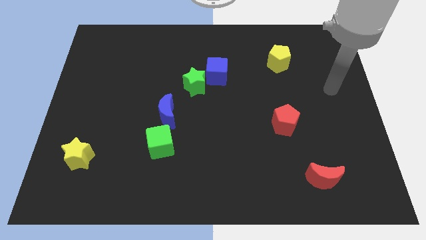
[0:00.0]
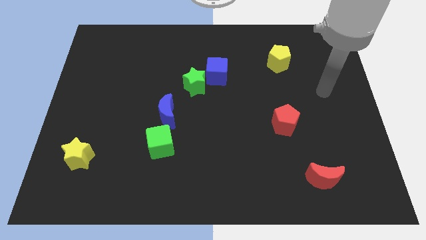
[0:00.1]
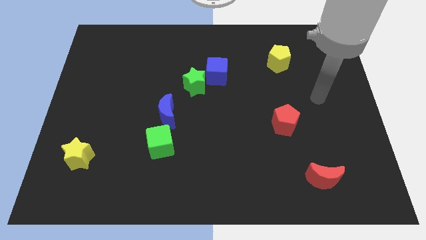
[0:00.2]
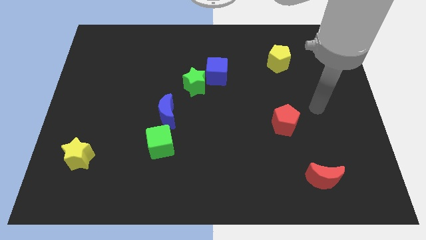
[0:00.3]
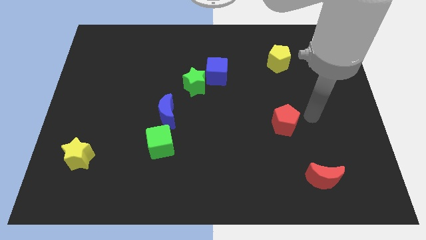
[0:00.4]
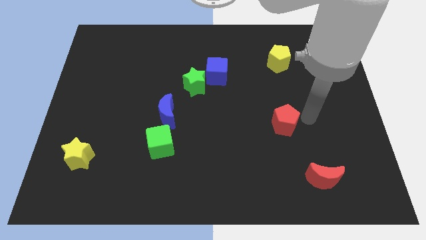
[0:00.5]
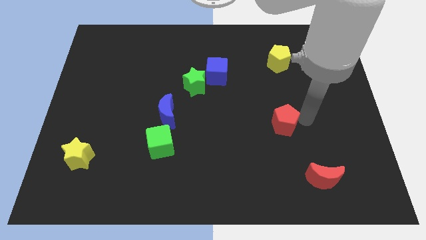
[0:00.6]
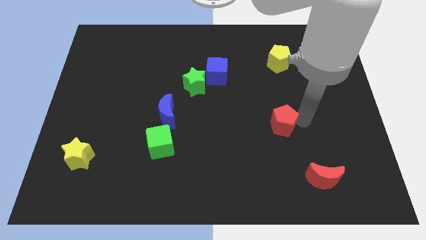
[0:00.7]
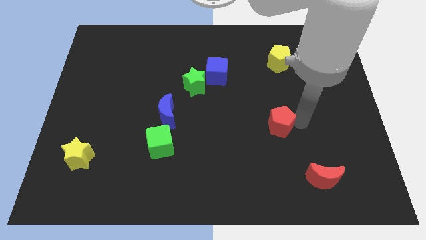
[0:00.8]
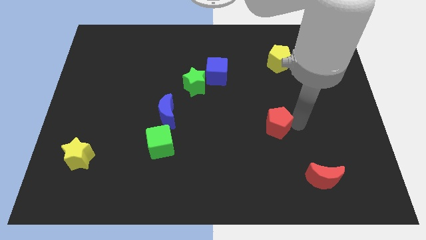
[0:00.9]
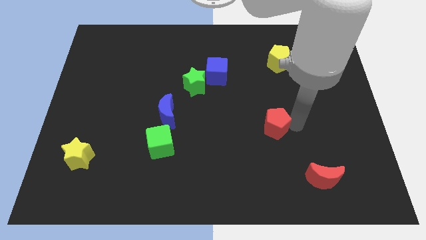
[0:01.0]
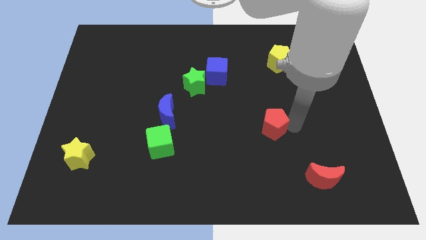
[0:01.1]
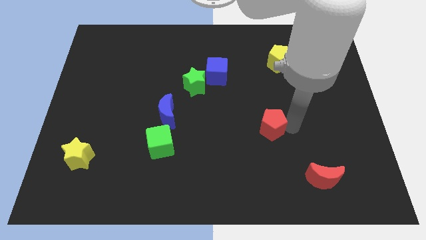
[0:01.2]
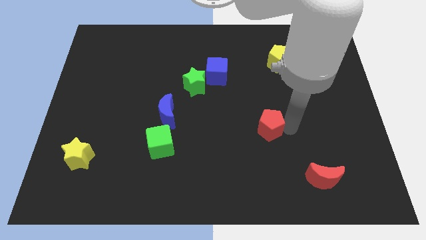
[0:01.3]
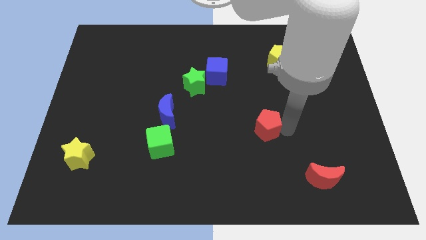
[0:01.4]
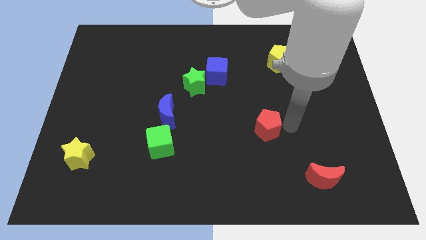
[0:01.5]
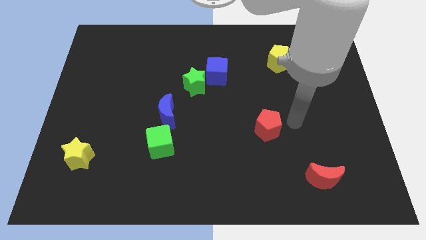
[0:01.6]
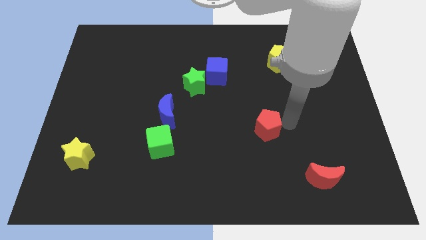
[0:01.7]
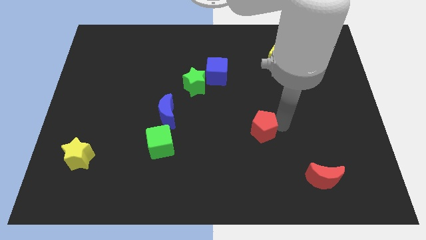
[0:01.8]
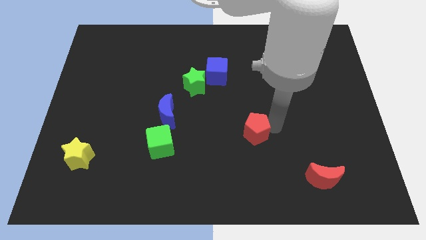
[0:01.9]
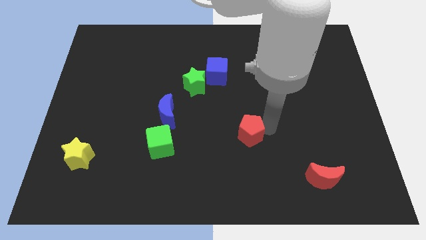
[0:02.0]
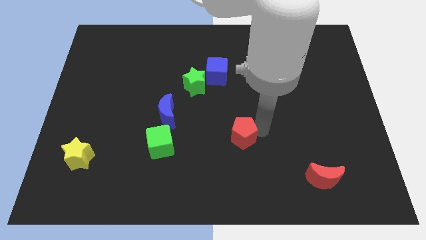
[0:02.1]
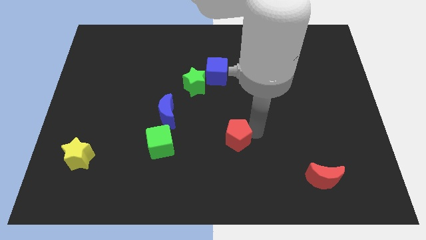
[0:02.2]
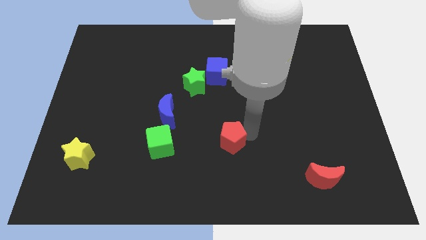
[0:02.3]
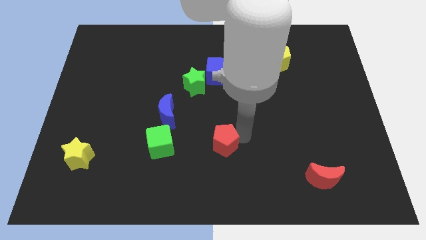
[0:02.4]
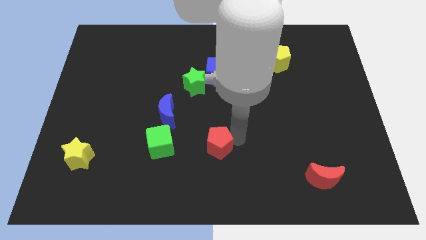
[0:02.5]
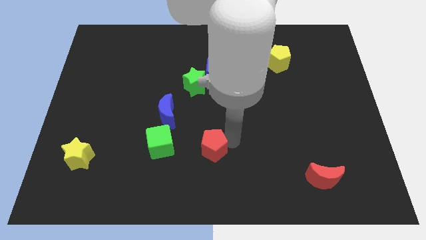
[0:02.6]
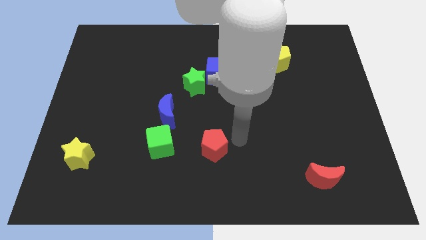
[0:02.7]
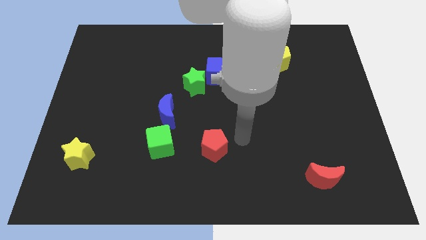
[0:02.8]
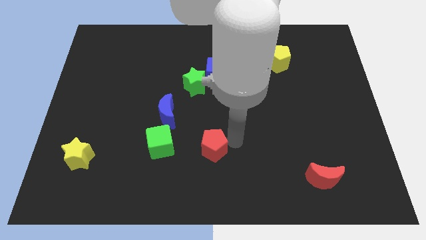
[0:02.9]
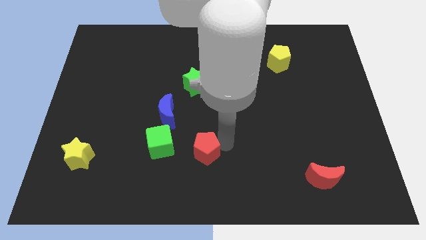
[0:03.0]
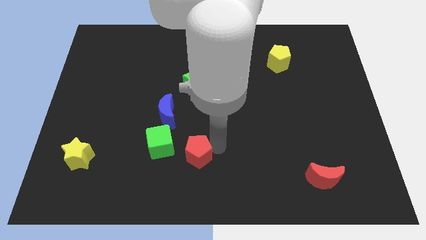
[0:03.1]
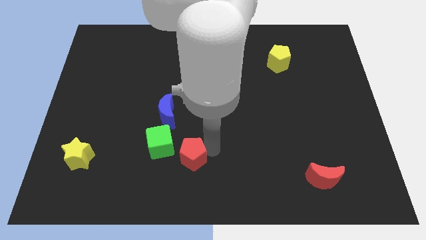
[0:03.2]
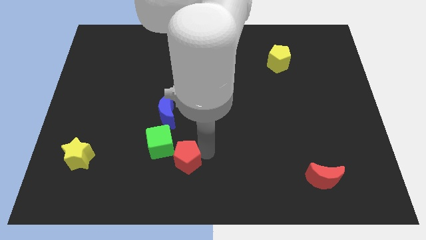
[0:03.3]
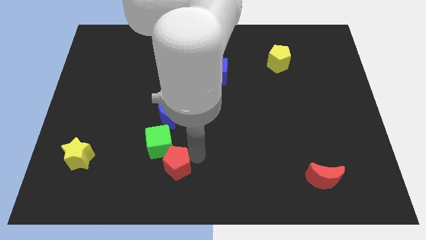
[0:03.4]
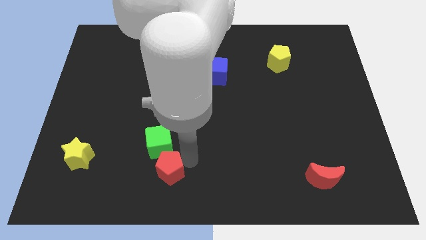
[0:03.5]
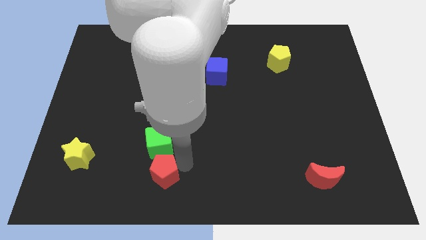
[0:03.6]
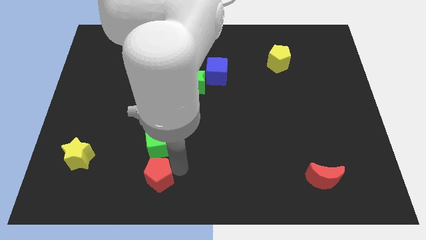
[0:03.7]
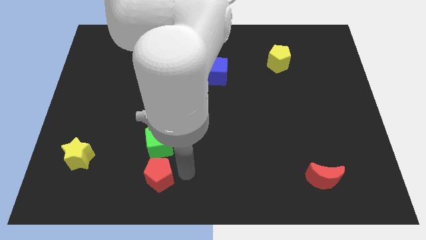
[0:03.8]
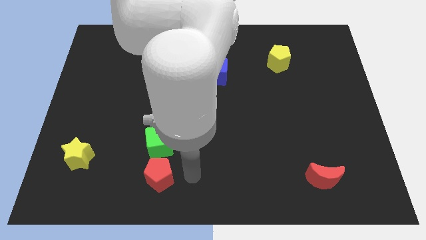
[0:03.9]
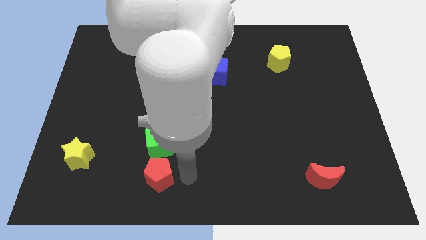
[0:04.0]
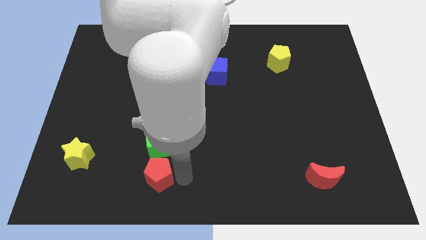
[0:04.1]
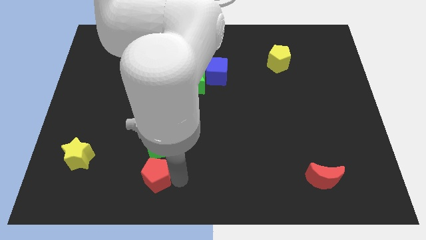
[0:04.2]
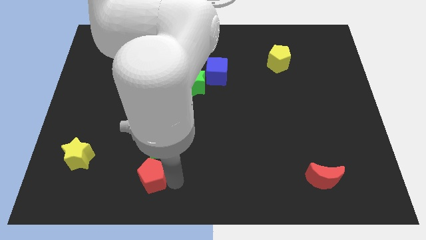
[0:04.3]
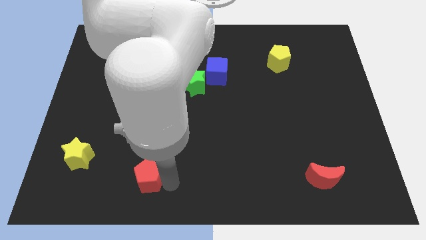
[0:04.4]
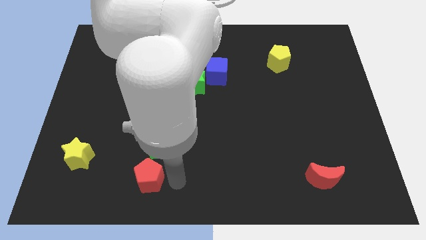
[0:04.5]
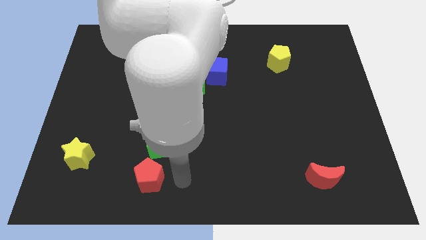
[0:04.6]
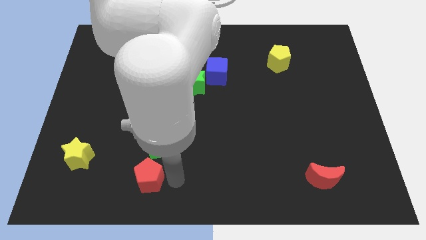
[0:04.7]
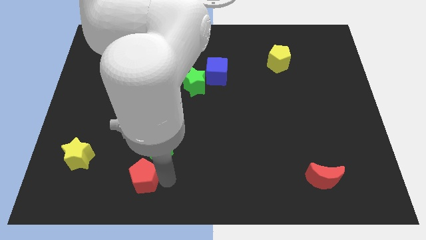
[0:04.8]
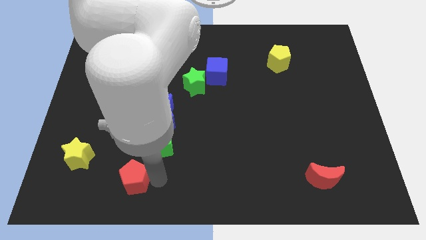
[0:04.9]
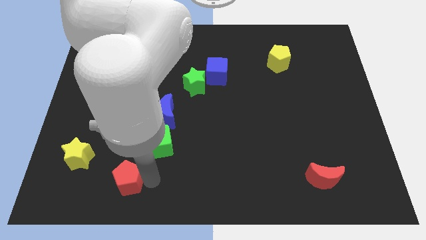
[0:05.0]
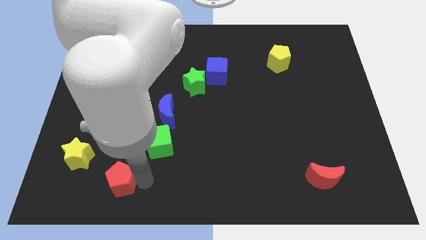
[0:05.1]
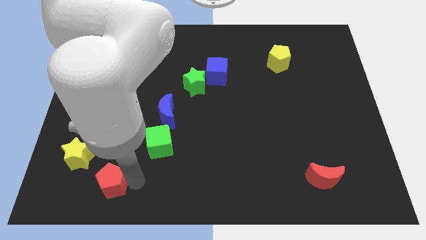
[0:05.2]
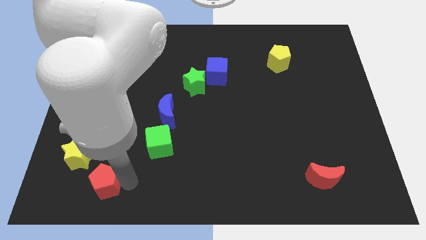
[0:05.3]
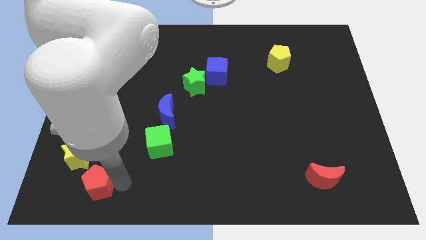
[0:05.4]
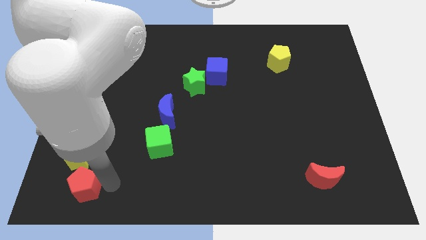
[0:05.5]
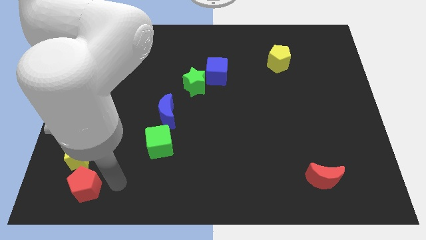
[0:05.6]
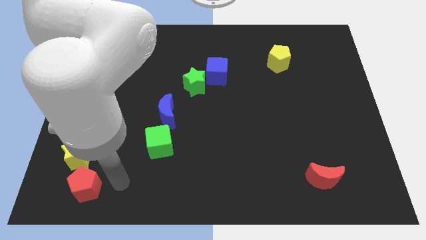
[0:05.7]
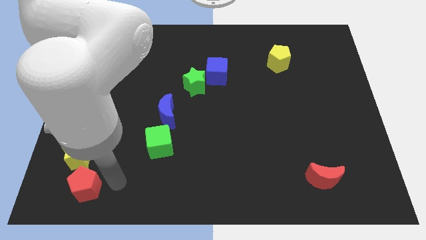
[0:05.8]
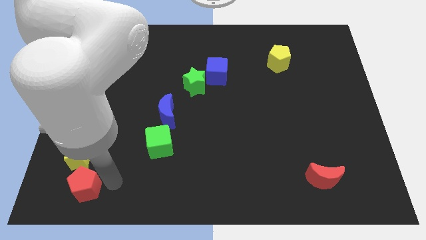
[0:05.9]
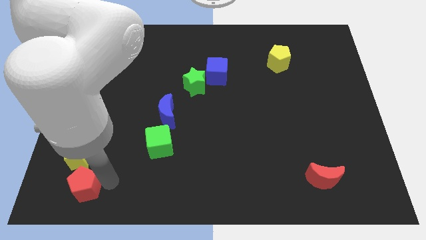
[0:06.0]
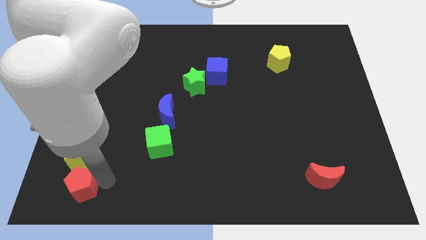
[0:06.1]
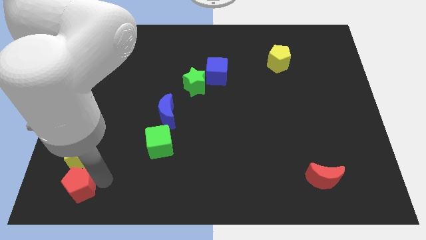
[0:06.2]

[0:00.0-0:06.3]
put the red pentagon to the lower left corner
